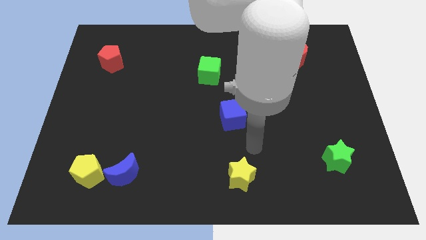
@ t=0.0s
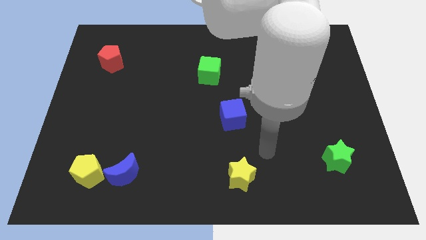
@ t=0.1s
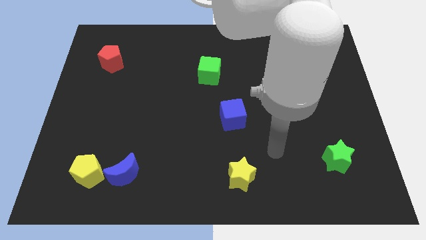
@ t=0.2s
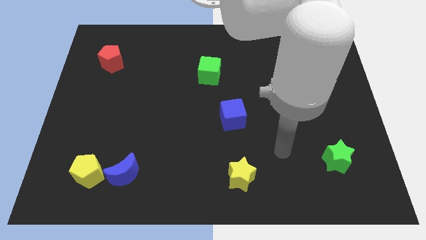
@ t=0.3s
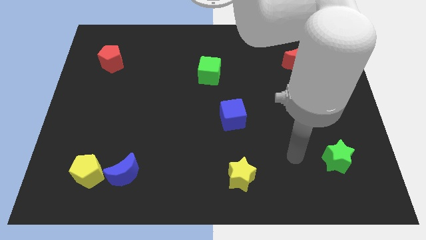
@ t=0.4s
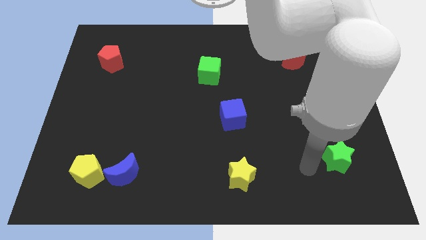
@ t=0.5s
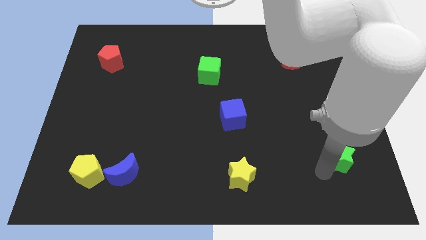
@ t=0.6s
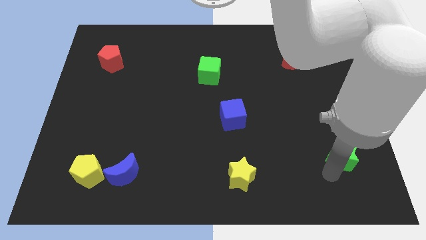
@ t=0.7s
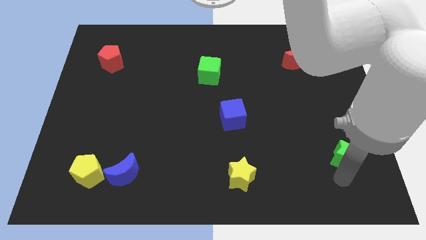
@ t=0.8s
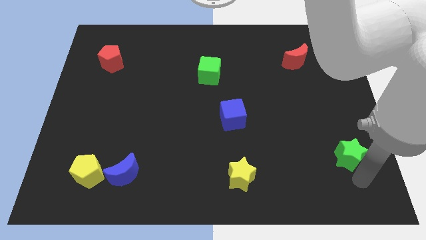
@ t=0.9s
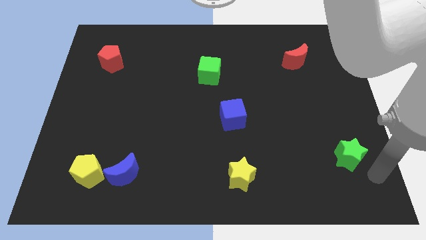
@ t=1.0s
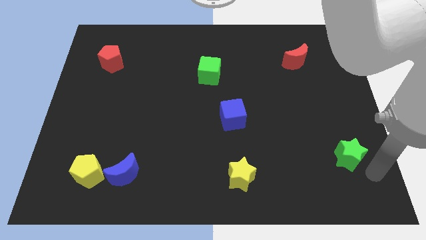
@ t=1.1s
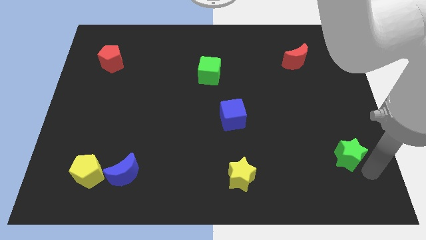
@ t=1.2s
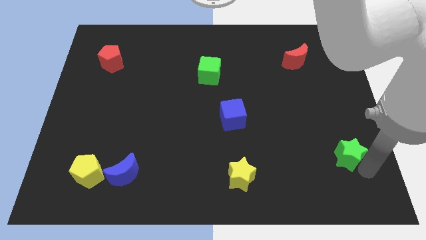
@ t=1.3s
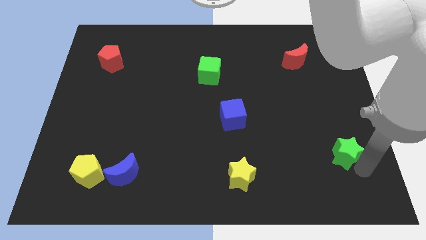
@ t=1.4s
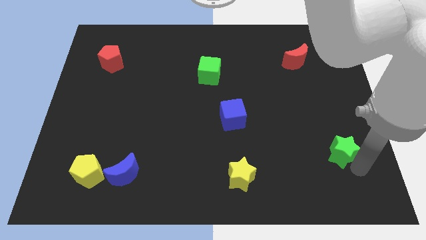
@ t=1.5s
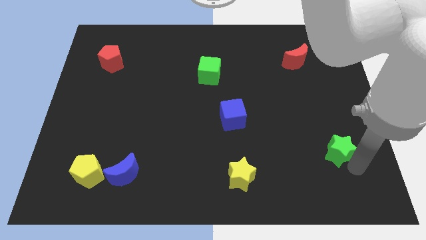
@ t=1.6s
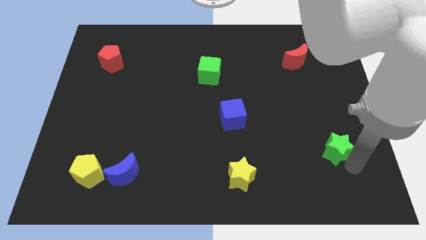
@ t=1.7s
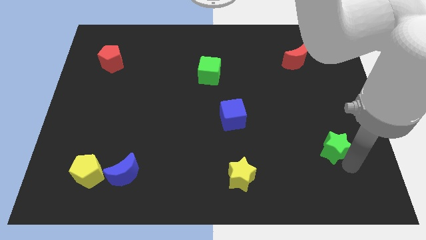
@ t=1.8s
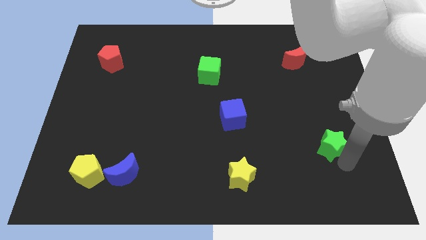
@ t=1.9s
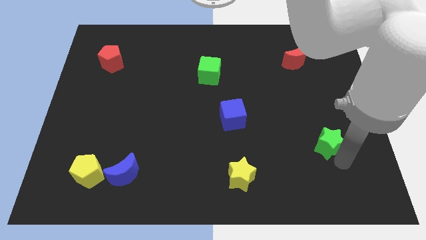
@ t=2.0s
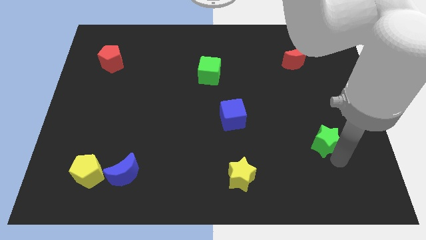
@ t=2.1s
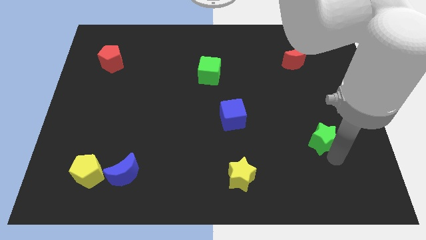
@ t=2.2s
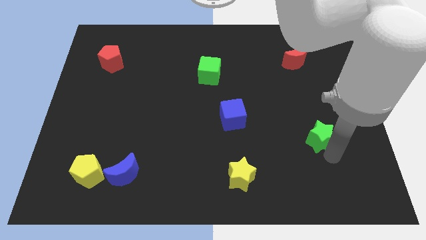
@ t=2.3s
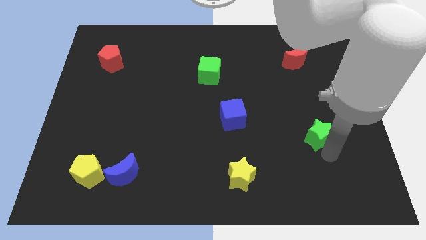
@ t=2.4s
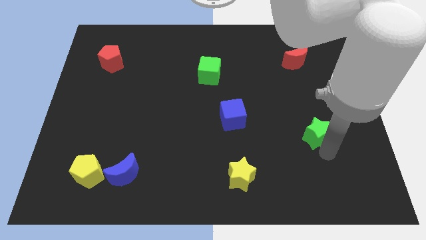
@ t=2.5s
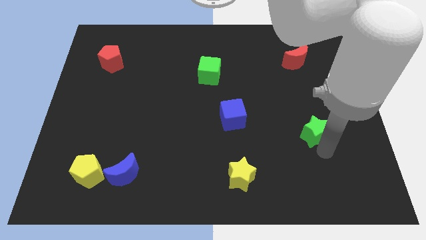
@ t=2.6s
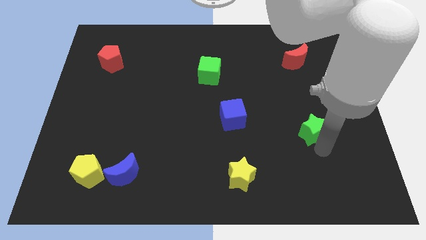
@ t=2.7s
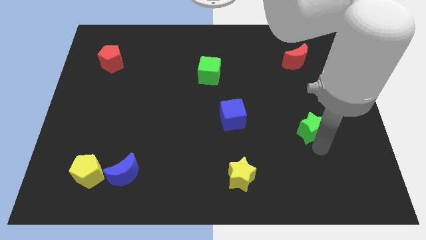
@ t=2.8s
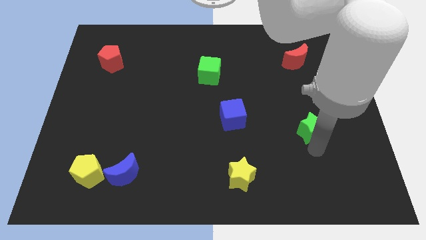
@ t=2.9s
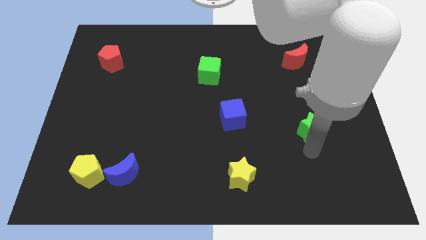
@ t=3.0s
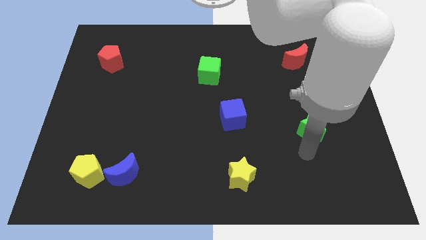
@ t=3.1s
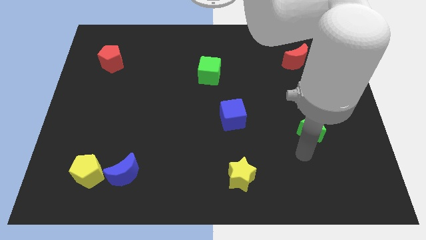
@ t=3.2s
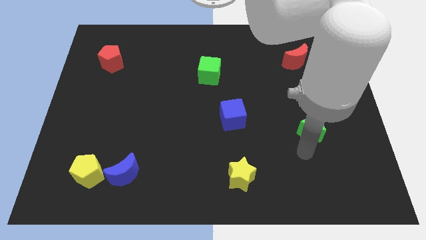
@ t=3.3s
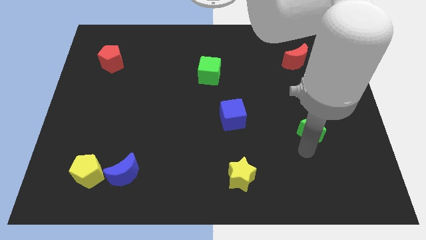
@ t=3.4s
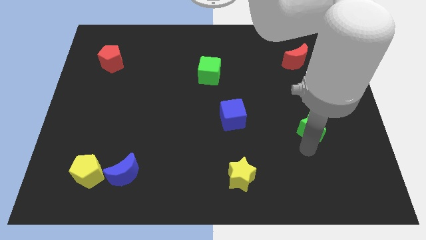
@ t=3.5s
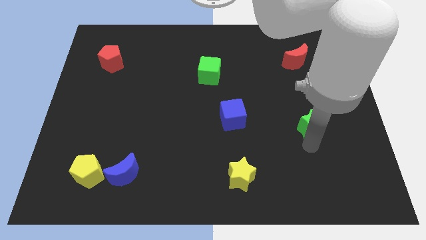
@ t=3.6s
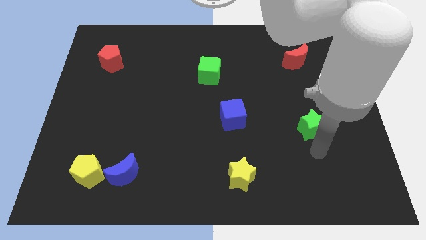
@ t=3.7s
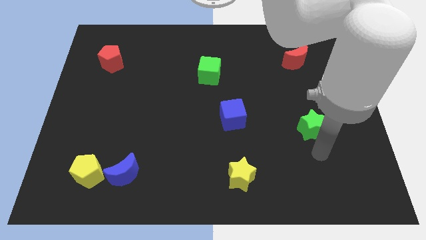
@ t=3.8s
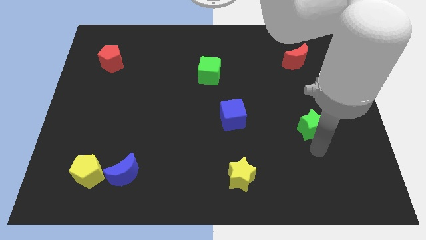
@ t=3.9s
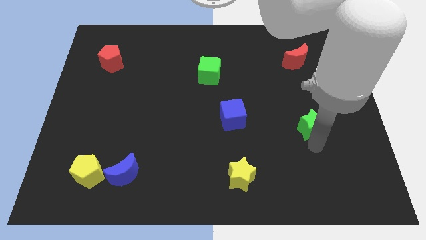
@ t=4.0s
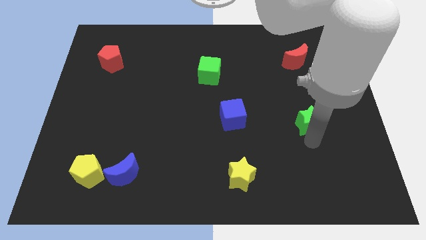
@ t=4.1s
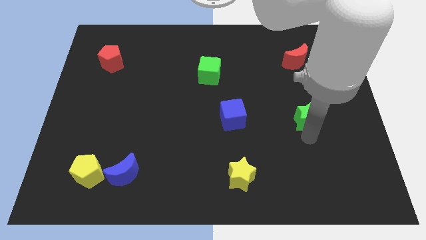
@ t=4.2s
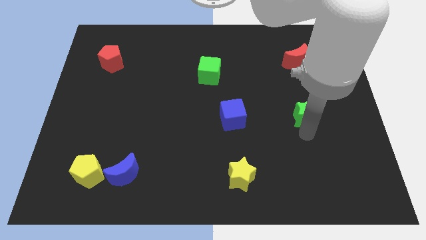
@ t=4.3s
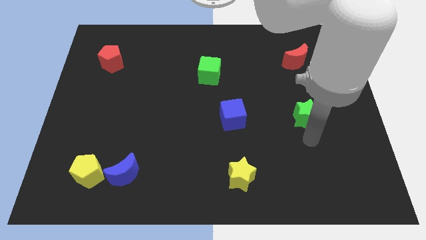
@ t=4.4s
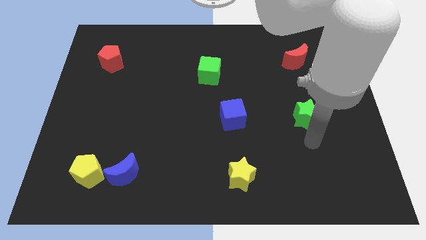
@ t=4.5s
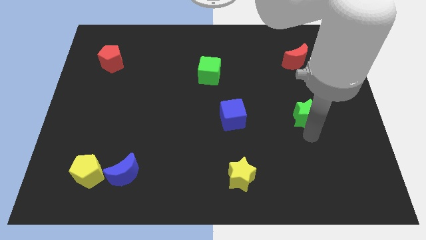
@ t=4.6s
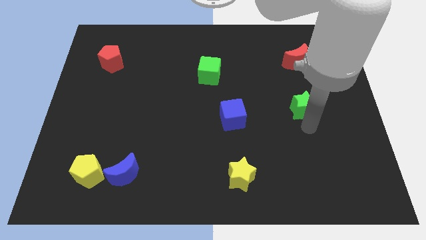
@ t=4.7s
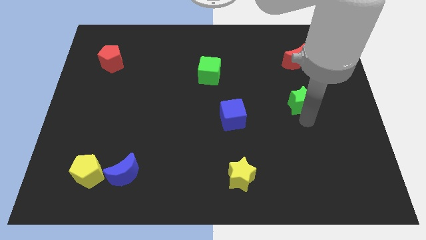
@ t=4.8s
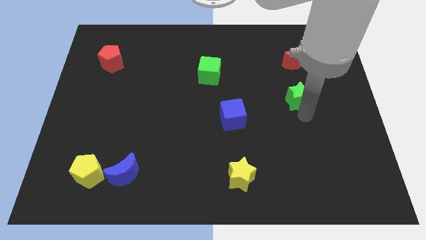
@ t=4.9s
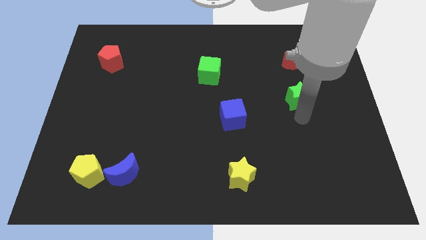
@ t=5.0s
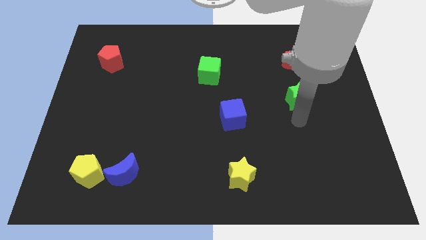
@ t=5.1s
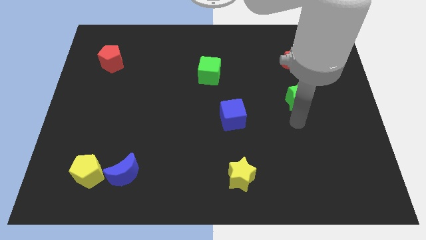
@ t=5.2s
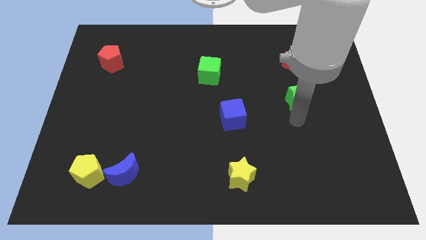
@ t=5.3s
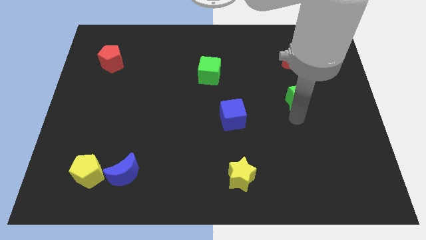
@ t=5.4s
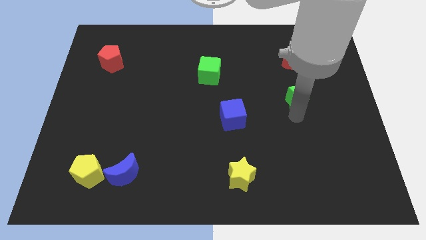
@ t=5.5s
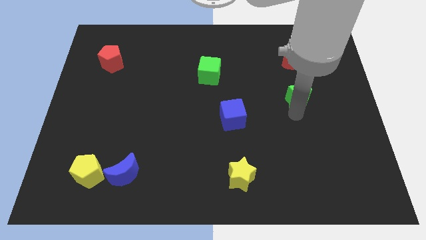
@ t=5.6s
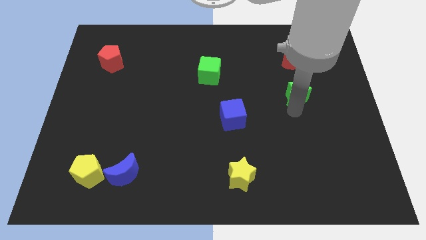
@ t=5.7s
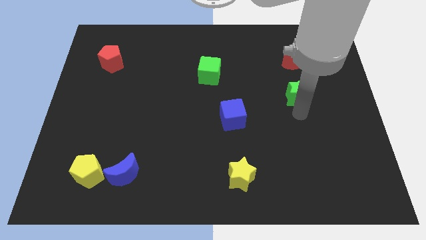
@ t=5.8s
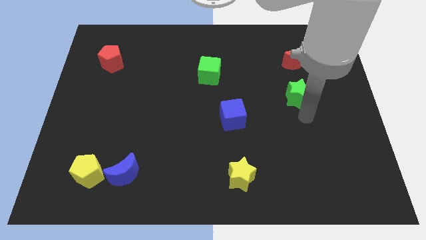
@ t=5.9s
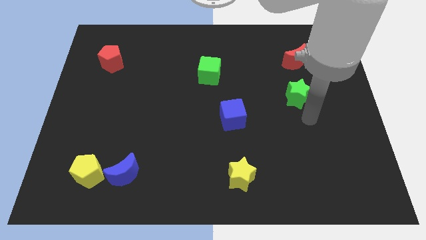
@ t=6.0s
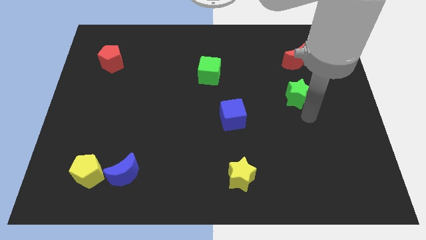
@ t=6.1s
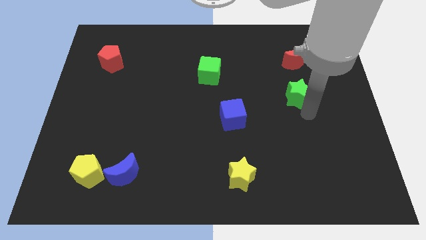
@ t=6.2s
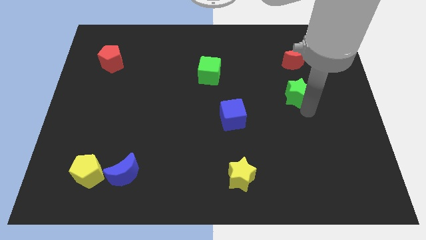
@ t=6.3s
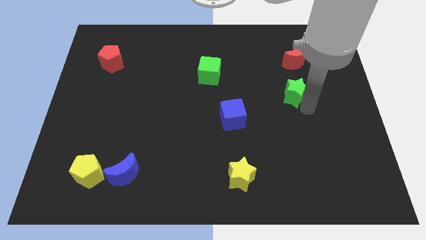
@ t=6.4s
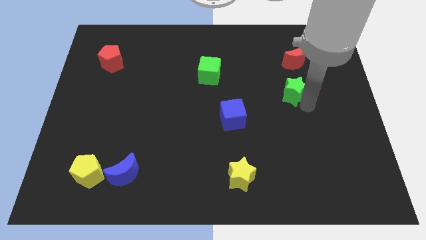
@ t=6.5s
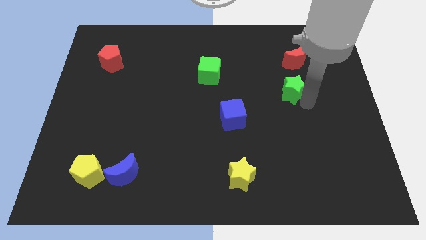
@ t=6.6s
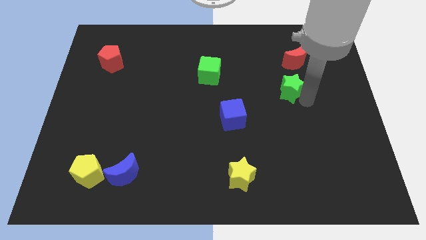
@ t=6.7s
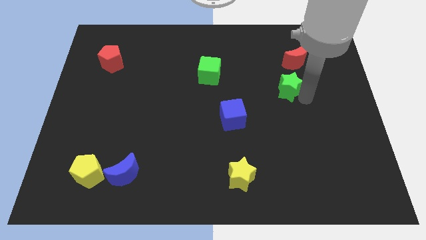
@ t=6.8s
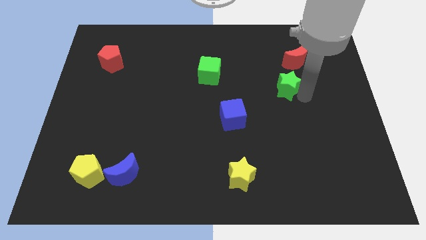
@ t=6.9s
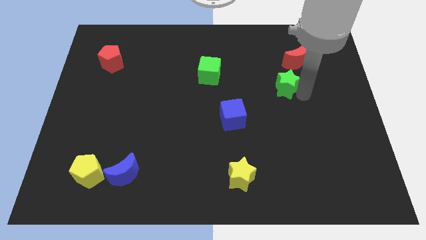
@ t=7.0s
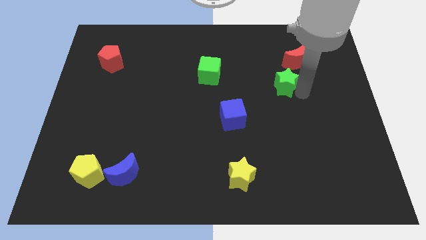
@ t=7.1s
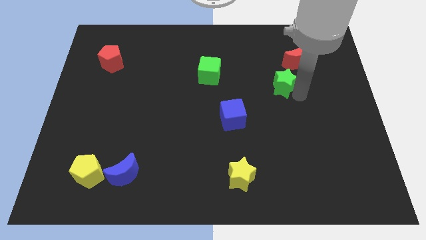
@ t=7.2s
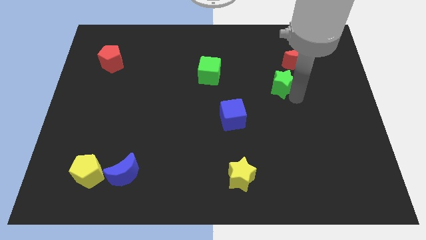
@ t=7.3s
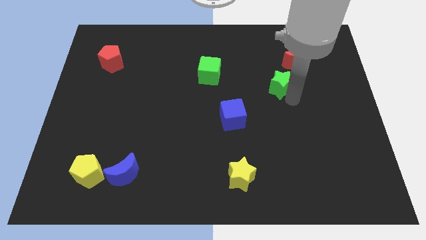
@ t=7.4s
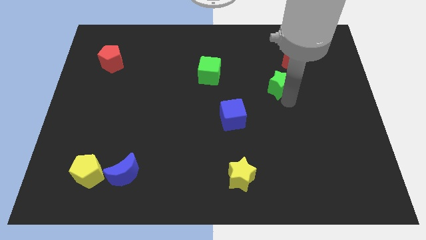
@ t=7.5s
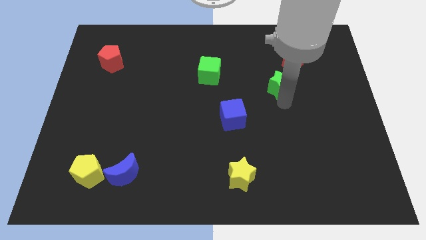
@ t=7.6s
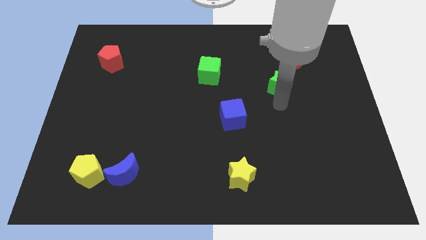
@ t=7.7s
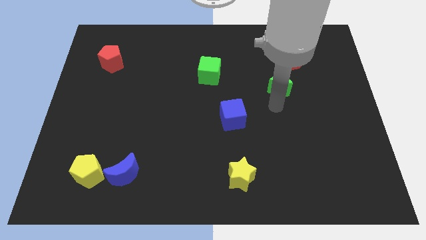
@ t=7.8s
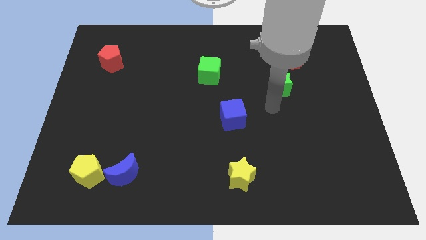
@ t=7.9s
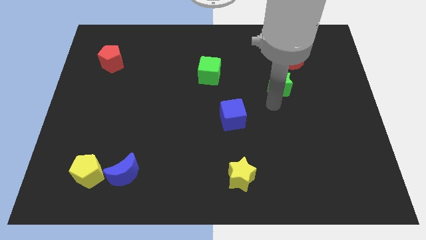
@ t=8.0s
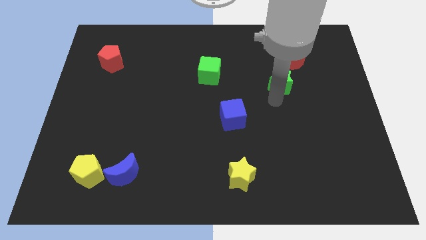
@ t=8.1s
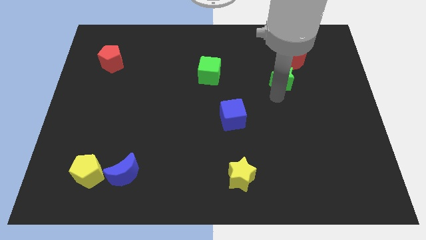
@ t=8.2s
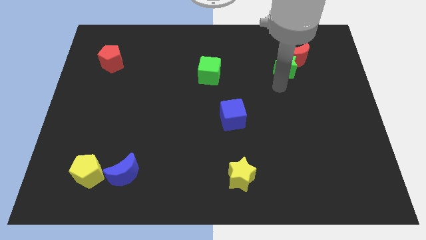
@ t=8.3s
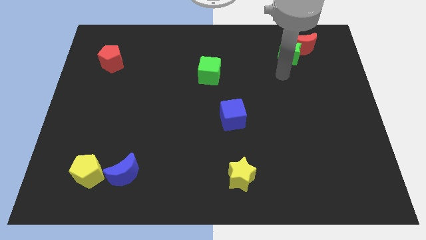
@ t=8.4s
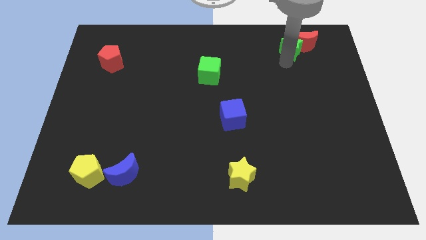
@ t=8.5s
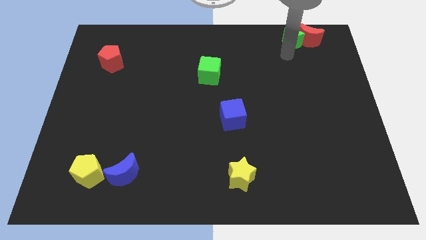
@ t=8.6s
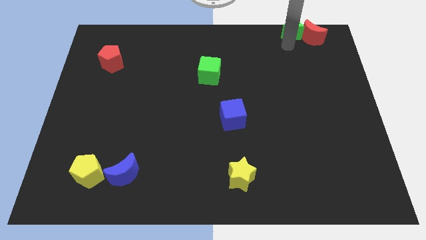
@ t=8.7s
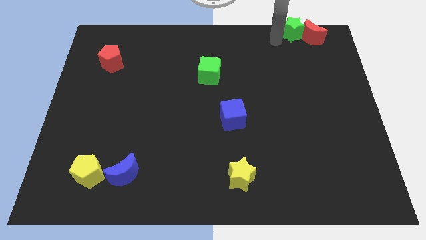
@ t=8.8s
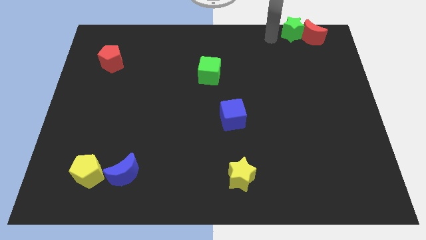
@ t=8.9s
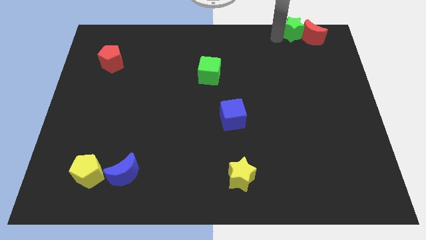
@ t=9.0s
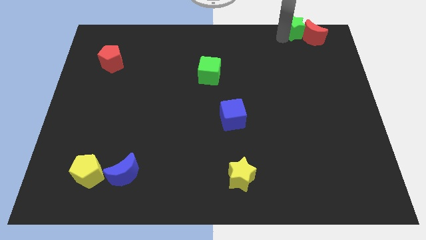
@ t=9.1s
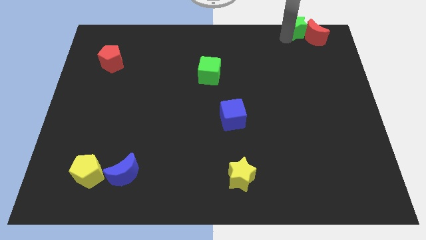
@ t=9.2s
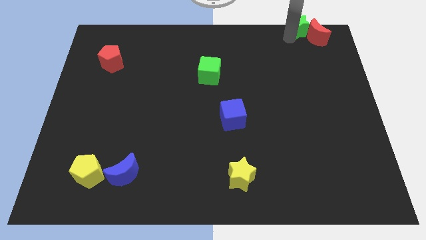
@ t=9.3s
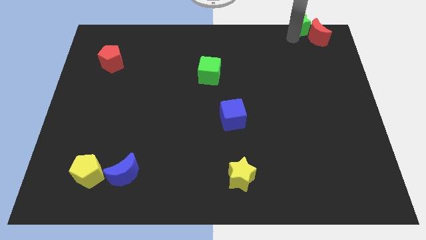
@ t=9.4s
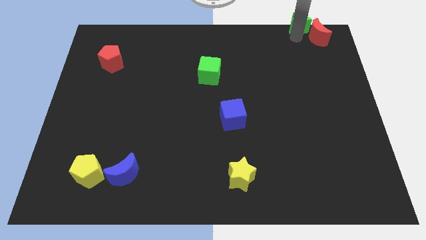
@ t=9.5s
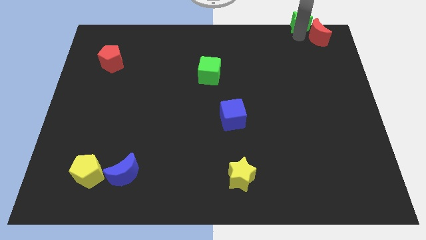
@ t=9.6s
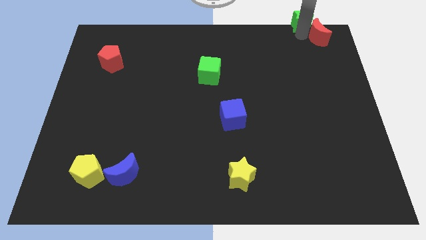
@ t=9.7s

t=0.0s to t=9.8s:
move the green star to the top right
